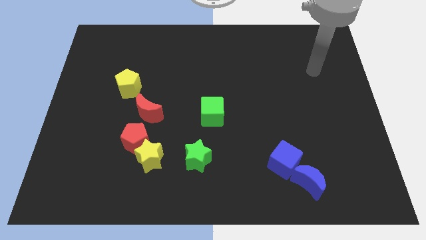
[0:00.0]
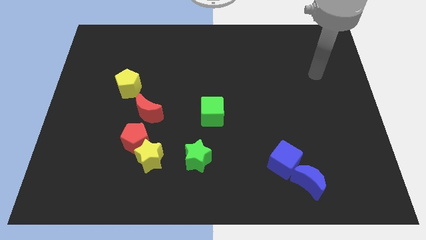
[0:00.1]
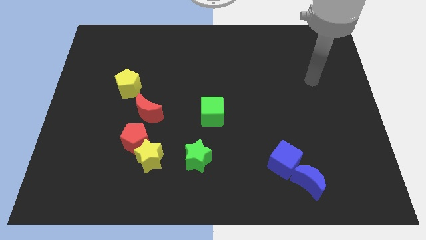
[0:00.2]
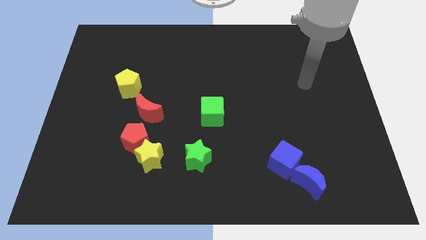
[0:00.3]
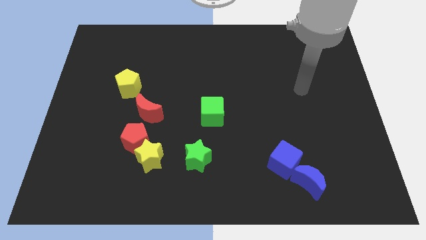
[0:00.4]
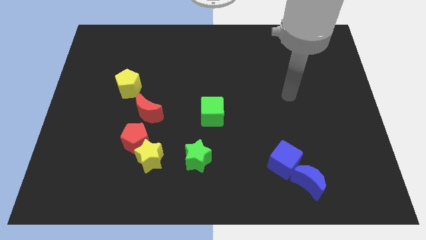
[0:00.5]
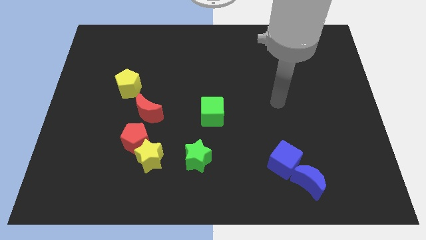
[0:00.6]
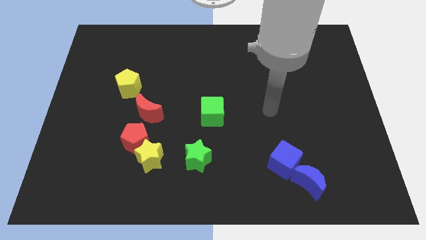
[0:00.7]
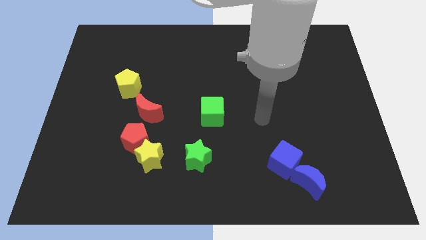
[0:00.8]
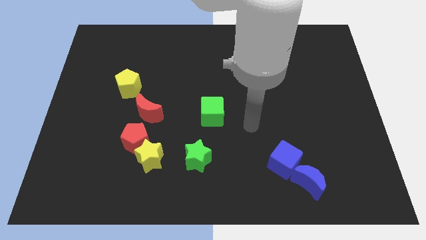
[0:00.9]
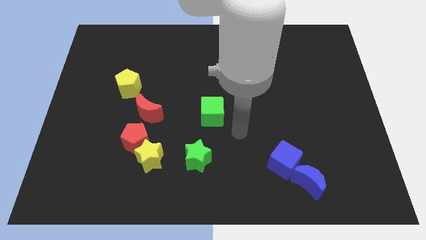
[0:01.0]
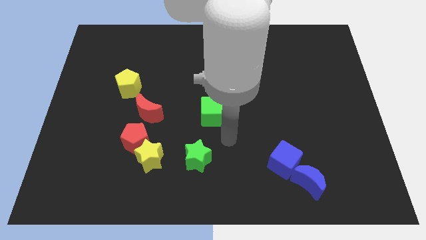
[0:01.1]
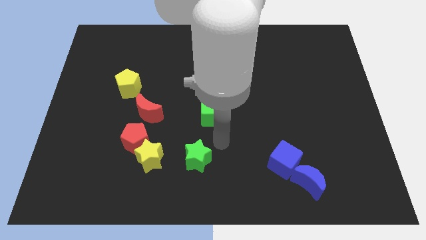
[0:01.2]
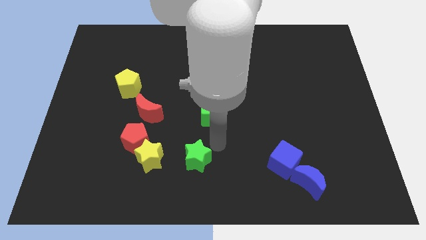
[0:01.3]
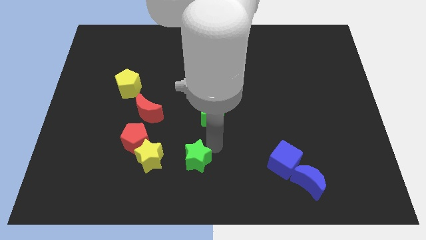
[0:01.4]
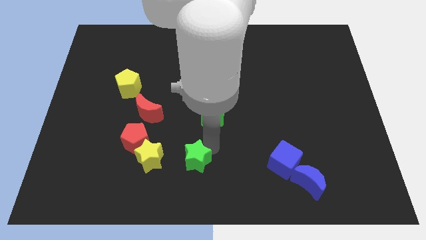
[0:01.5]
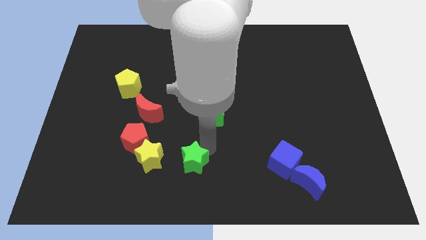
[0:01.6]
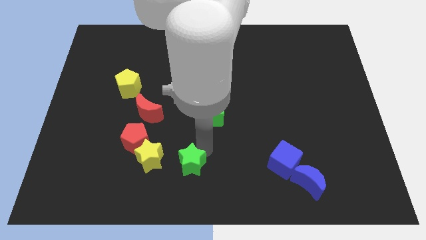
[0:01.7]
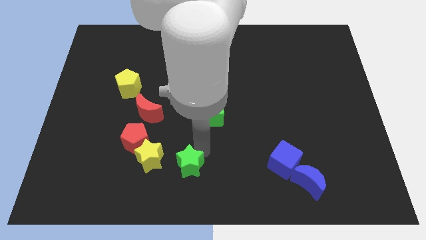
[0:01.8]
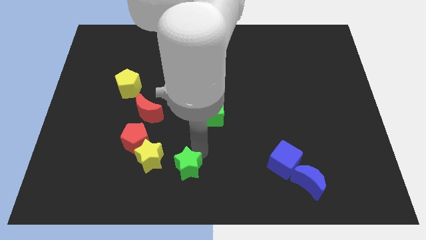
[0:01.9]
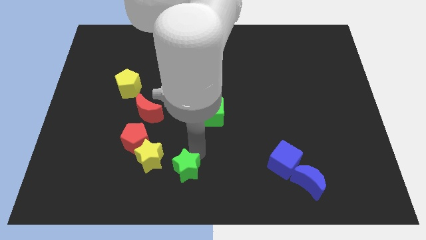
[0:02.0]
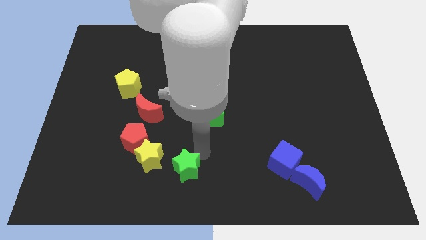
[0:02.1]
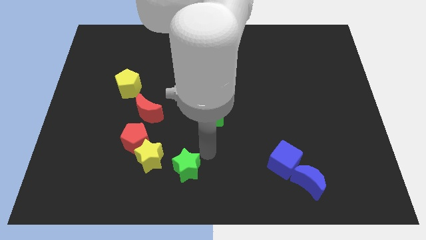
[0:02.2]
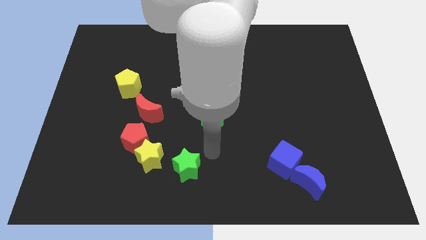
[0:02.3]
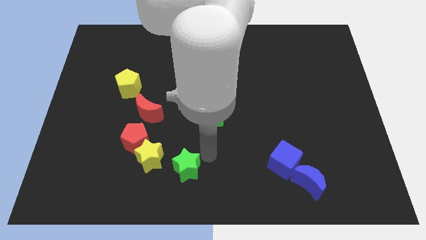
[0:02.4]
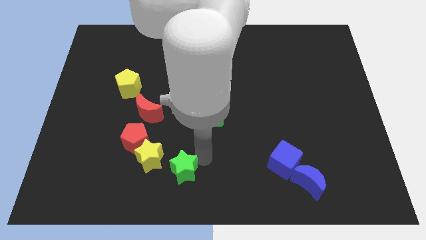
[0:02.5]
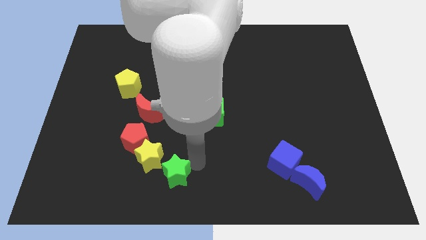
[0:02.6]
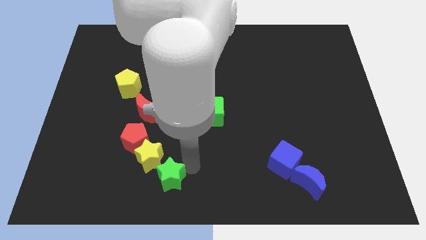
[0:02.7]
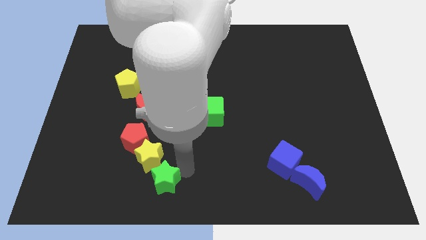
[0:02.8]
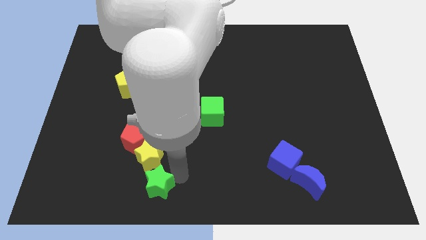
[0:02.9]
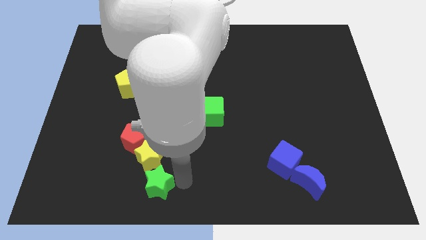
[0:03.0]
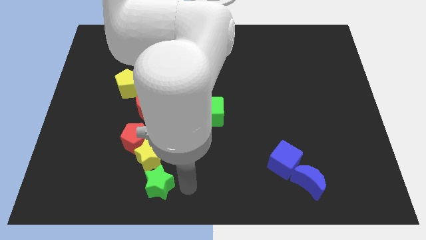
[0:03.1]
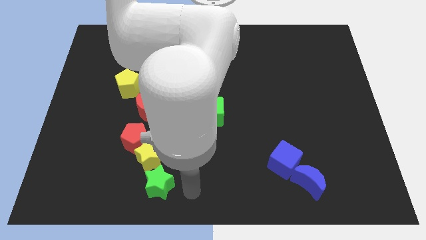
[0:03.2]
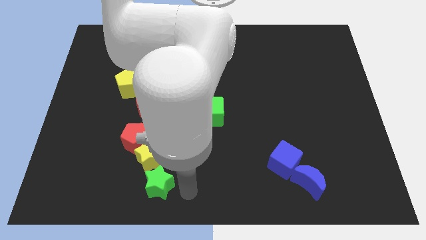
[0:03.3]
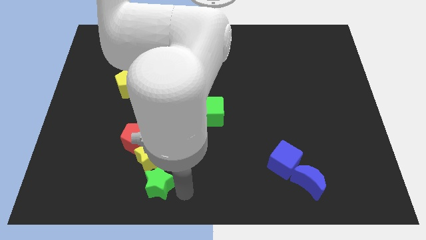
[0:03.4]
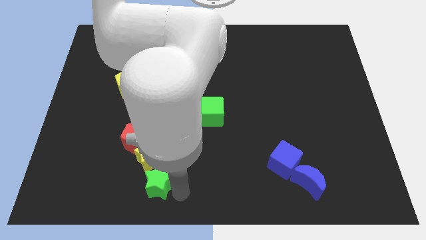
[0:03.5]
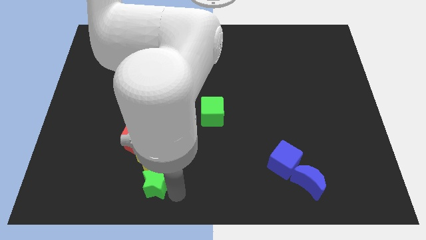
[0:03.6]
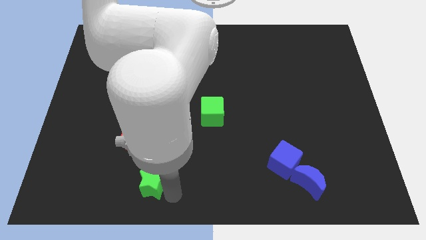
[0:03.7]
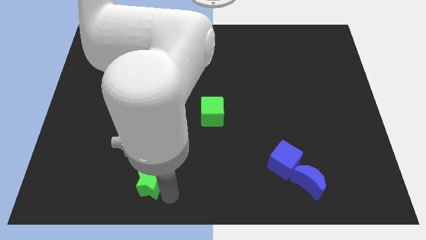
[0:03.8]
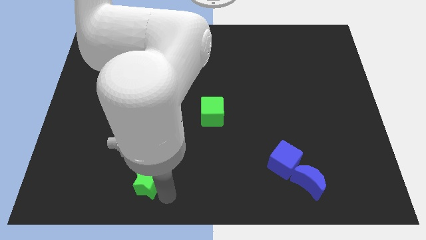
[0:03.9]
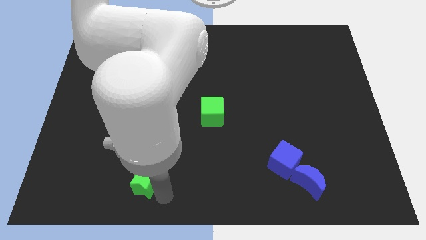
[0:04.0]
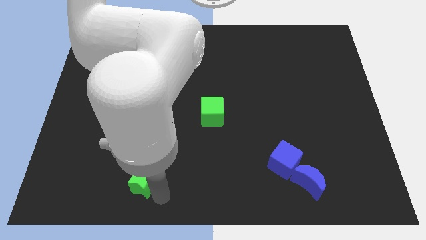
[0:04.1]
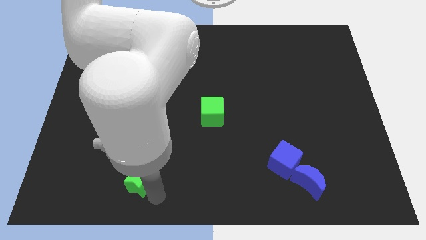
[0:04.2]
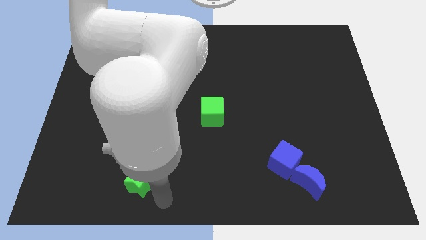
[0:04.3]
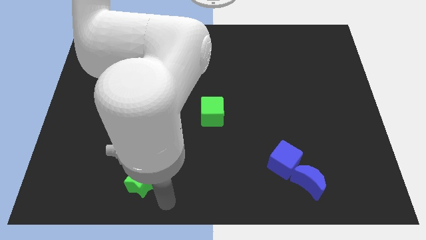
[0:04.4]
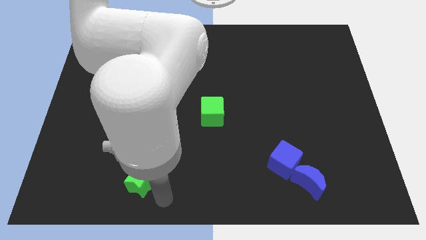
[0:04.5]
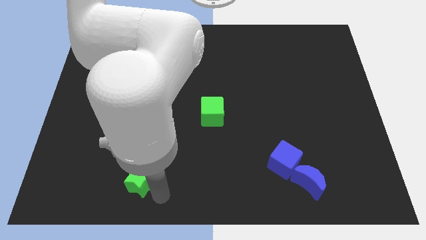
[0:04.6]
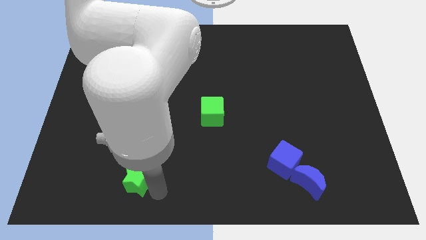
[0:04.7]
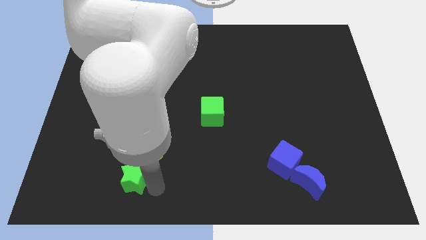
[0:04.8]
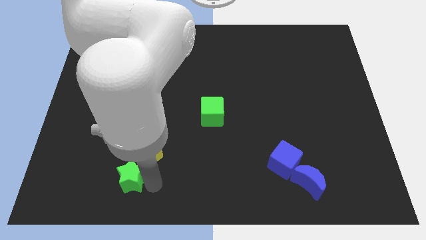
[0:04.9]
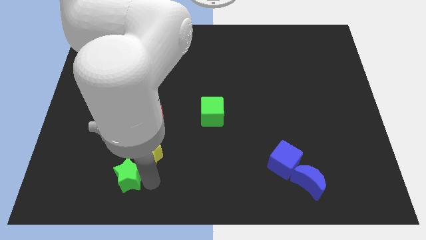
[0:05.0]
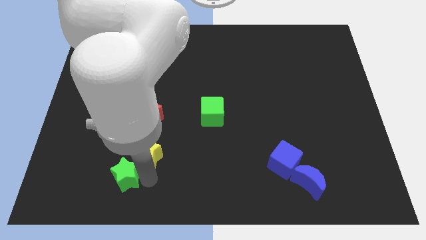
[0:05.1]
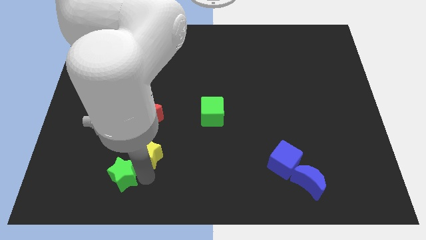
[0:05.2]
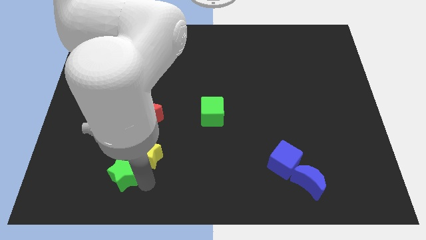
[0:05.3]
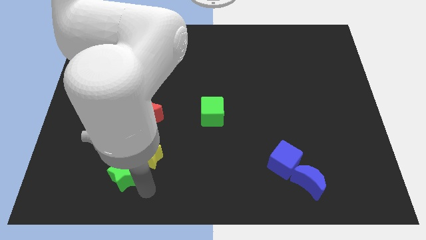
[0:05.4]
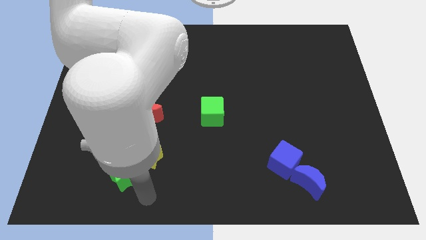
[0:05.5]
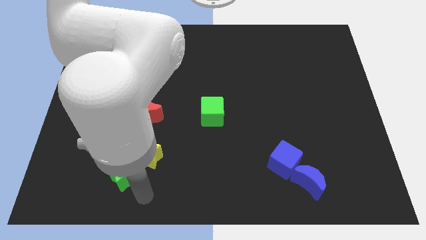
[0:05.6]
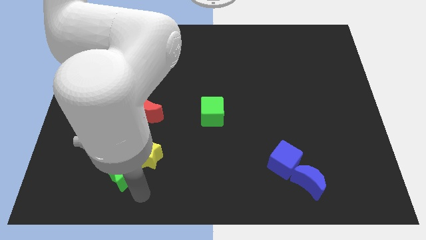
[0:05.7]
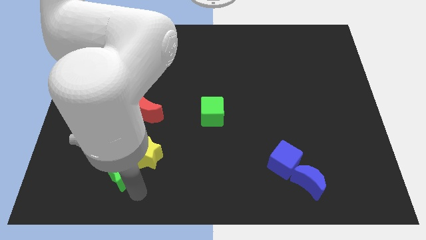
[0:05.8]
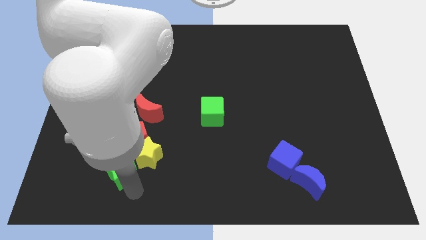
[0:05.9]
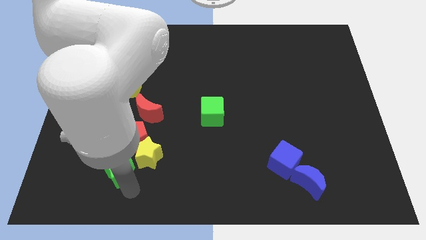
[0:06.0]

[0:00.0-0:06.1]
push the green star diagonally down and to the left of the red pentagon
